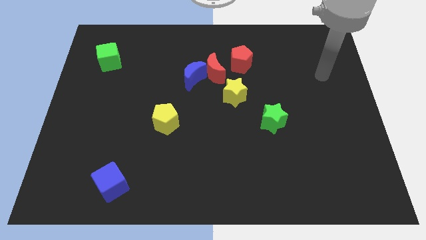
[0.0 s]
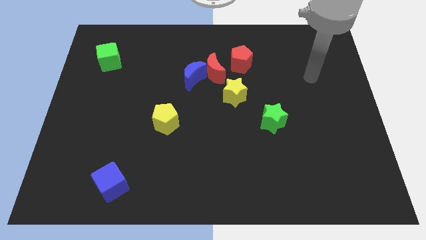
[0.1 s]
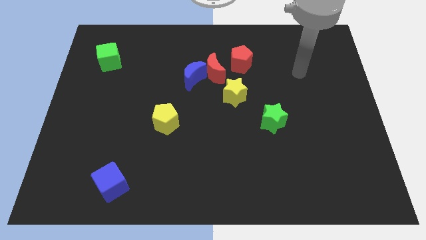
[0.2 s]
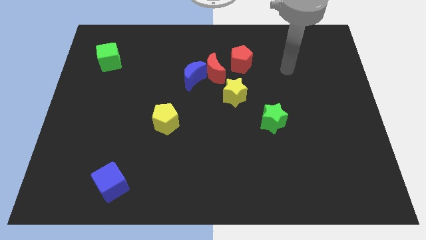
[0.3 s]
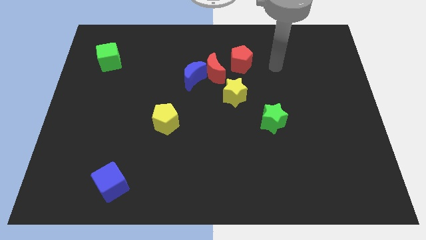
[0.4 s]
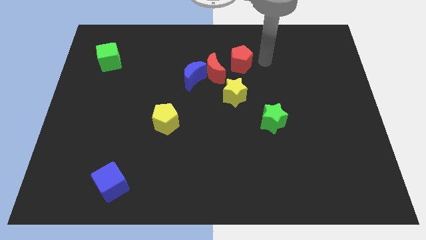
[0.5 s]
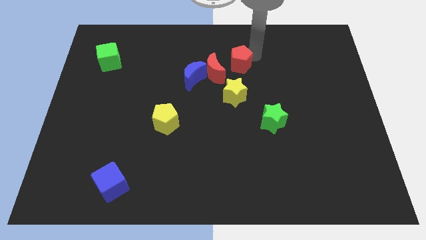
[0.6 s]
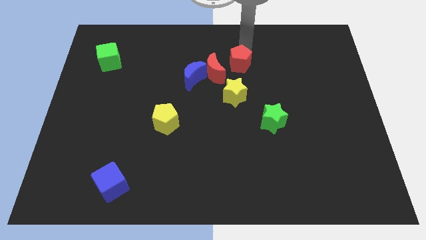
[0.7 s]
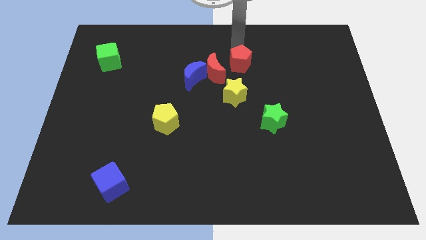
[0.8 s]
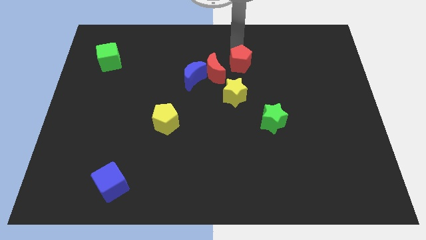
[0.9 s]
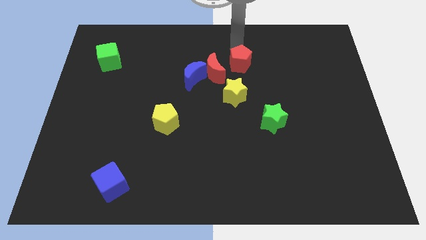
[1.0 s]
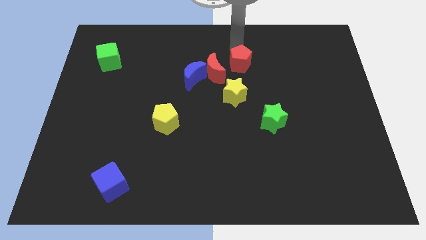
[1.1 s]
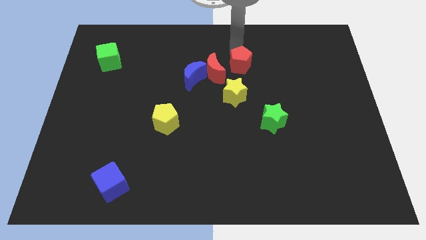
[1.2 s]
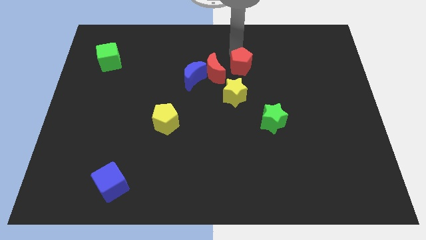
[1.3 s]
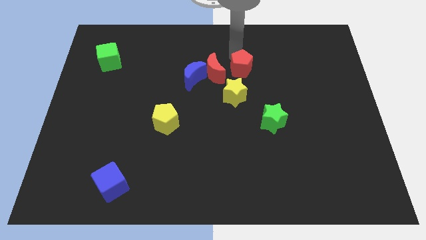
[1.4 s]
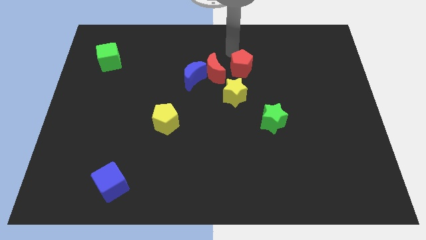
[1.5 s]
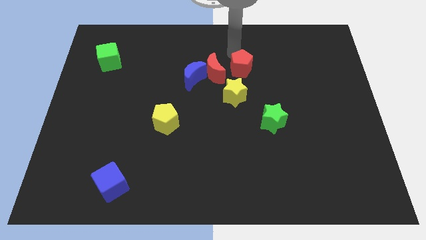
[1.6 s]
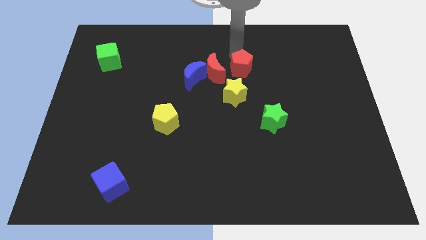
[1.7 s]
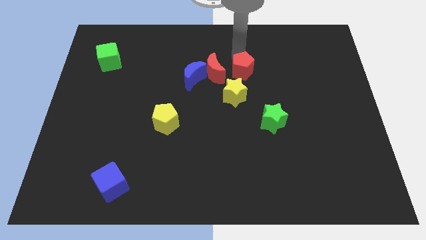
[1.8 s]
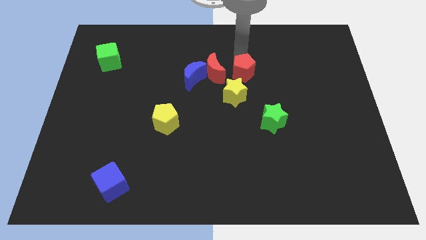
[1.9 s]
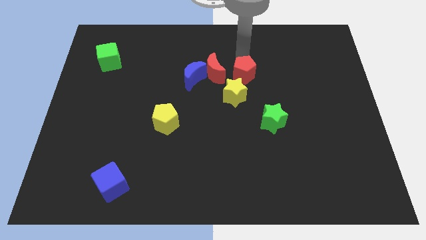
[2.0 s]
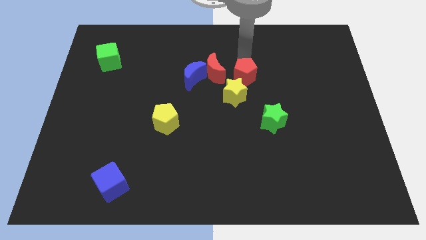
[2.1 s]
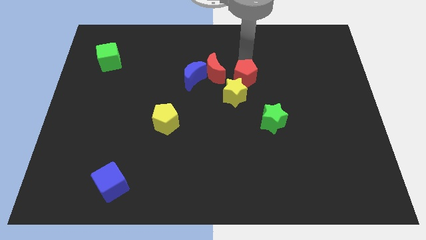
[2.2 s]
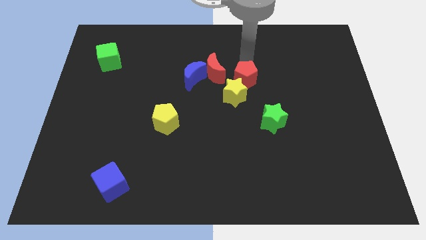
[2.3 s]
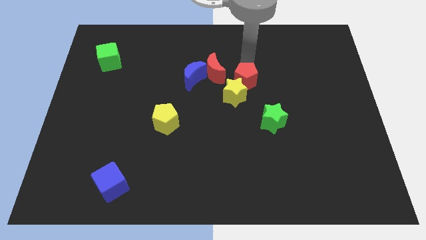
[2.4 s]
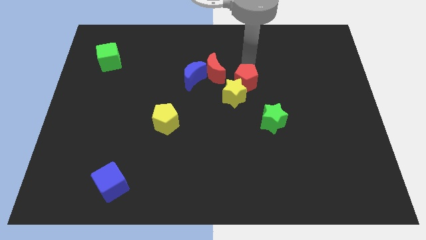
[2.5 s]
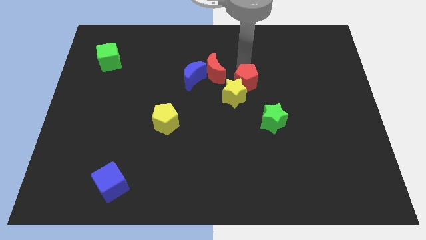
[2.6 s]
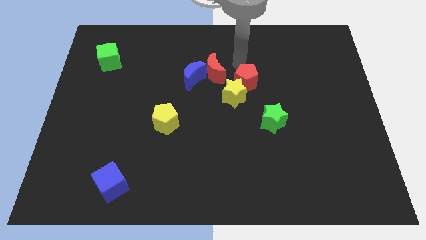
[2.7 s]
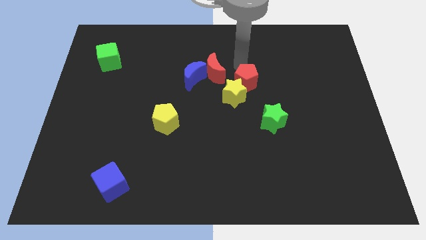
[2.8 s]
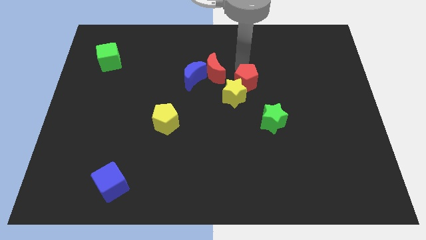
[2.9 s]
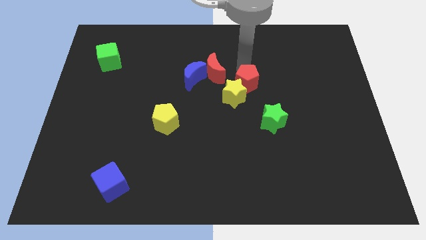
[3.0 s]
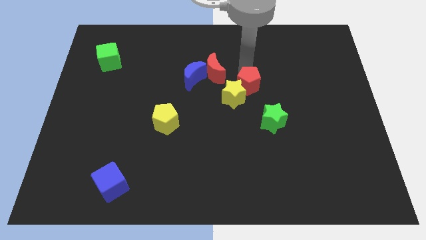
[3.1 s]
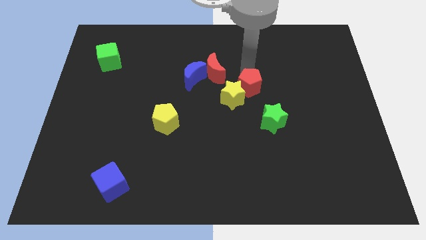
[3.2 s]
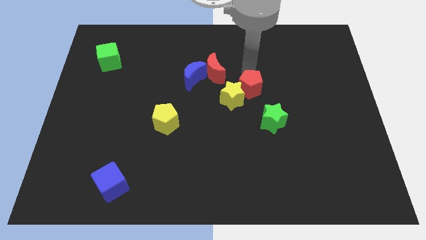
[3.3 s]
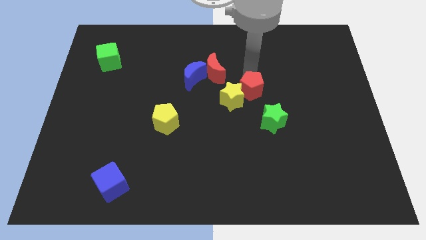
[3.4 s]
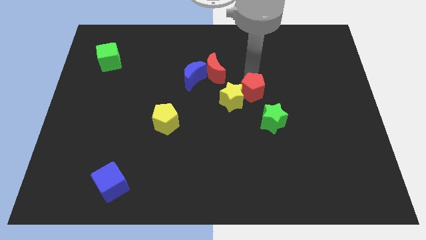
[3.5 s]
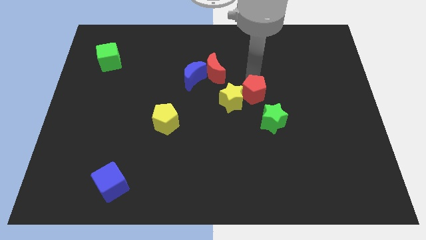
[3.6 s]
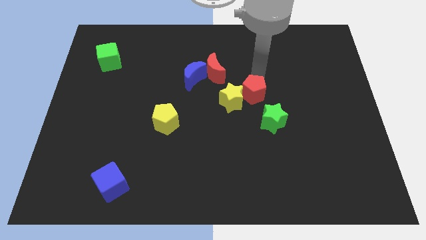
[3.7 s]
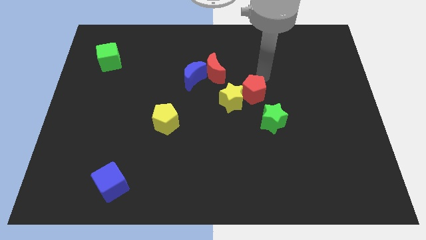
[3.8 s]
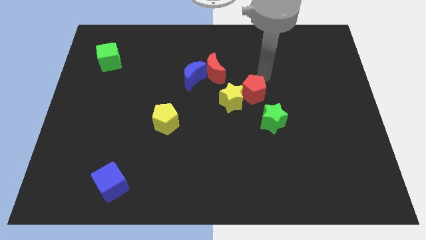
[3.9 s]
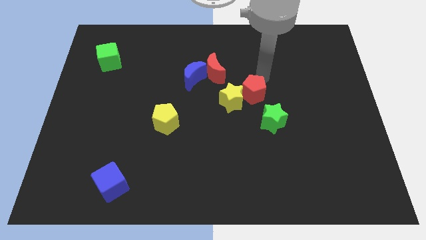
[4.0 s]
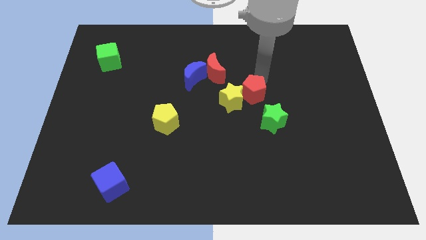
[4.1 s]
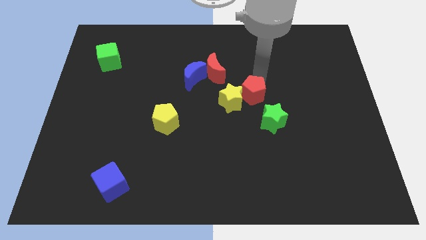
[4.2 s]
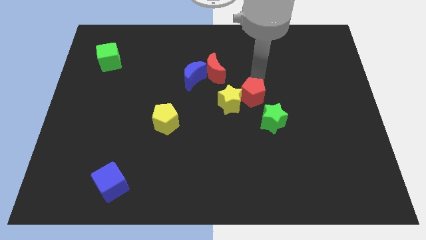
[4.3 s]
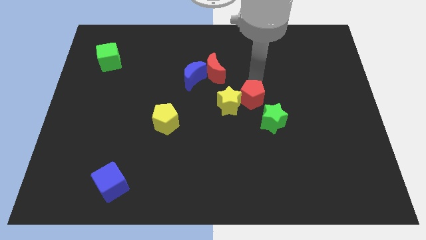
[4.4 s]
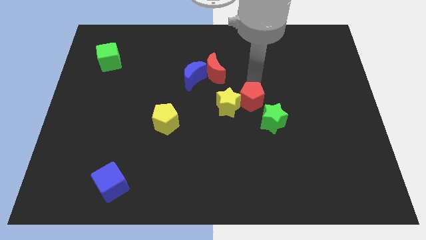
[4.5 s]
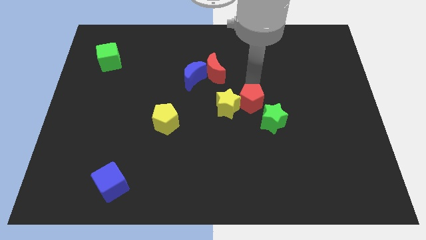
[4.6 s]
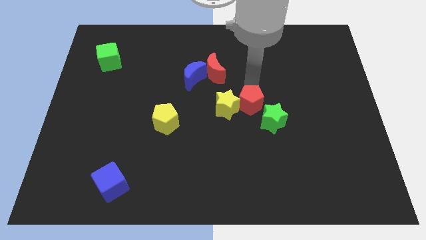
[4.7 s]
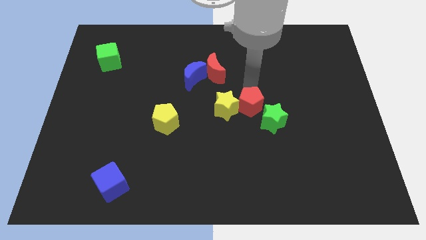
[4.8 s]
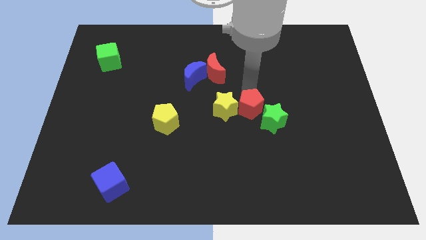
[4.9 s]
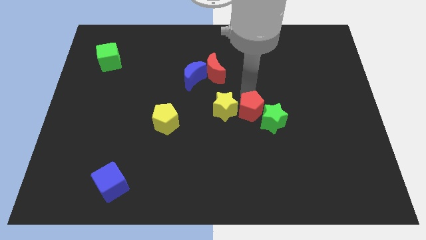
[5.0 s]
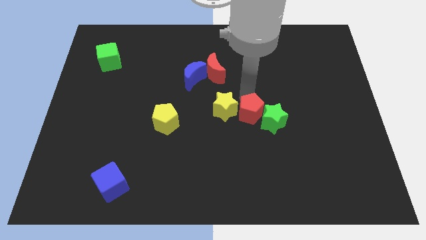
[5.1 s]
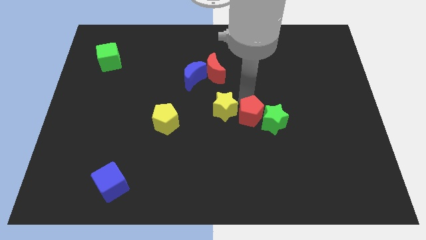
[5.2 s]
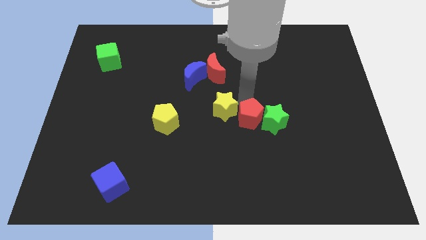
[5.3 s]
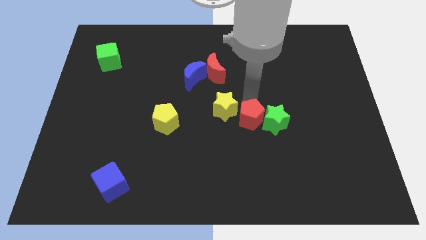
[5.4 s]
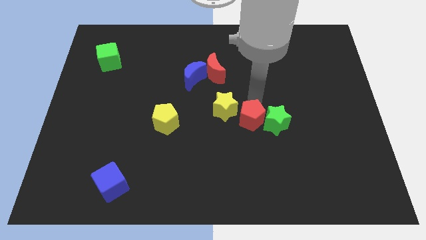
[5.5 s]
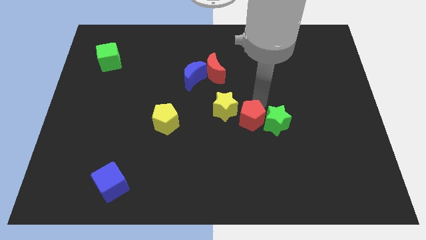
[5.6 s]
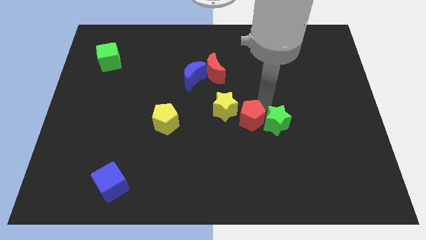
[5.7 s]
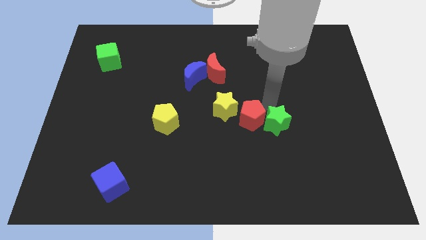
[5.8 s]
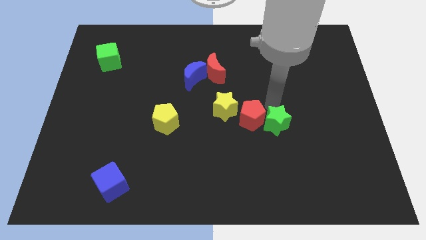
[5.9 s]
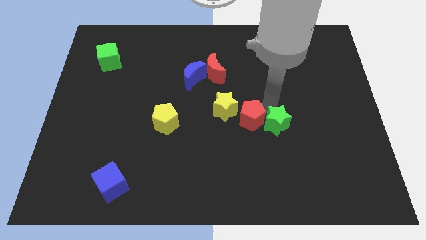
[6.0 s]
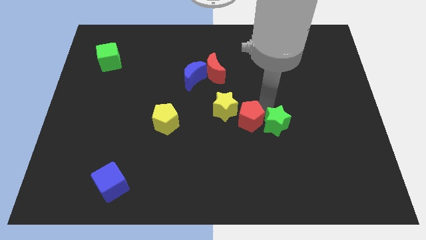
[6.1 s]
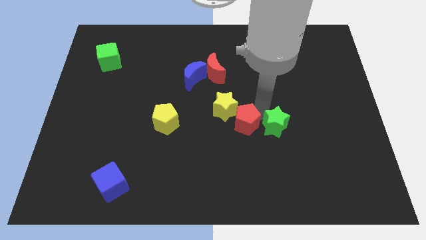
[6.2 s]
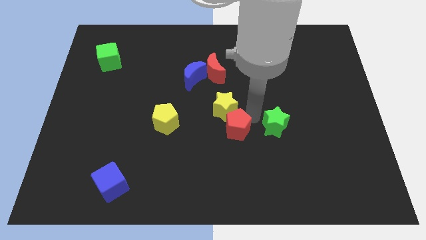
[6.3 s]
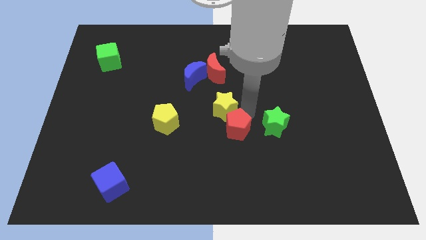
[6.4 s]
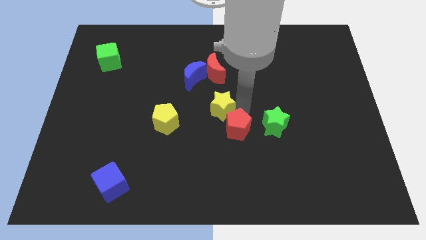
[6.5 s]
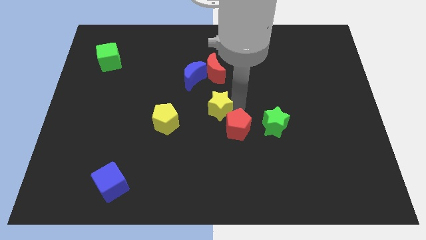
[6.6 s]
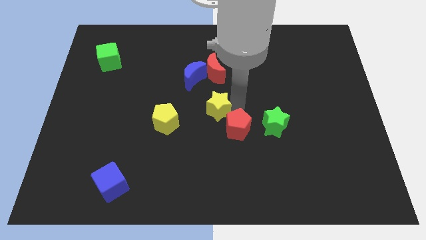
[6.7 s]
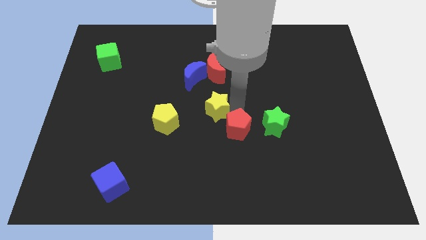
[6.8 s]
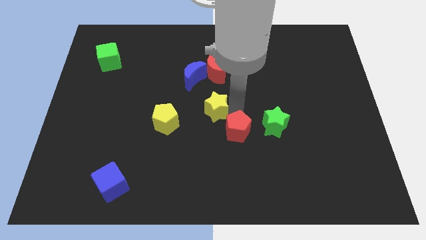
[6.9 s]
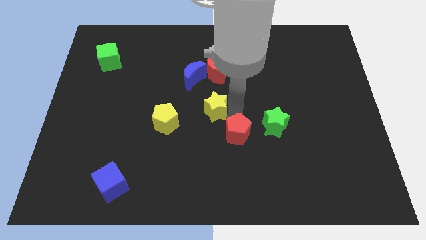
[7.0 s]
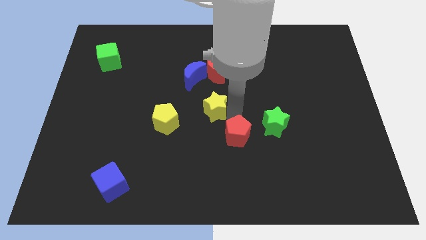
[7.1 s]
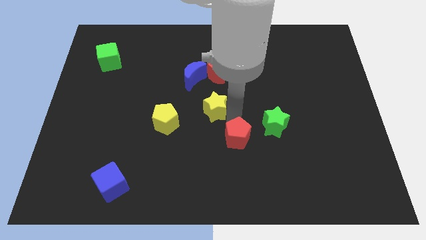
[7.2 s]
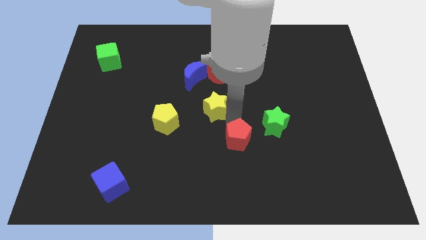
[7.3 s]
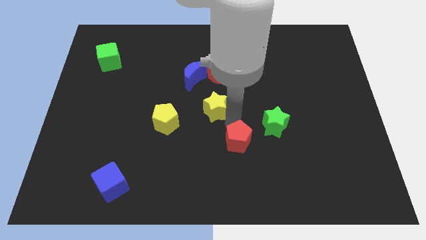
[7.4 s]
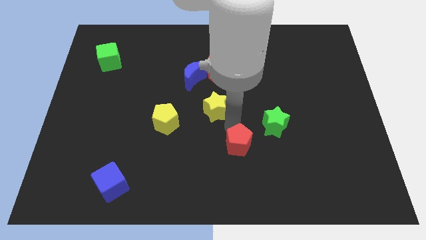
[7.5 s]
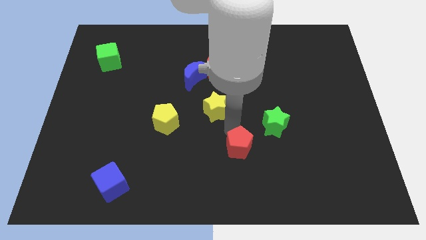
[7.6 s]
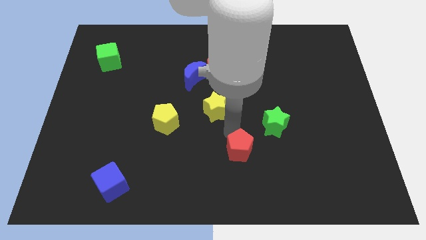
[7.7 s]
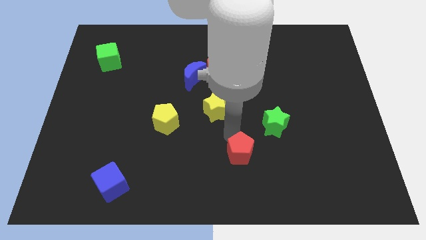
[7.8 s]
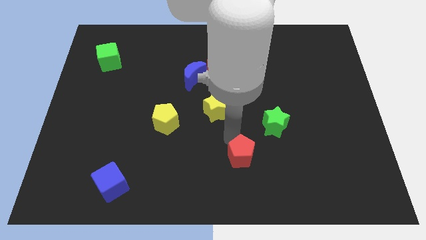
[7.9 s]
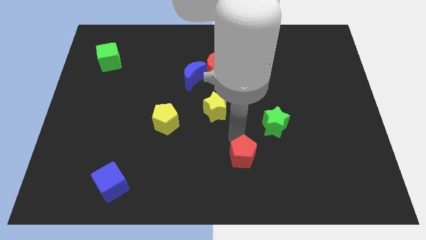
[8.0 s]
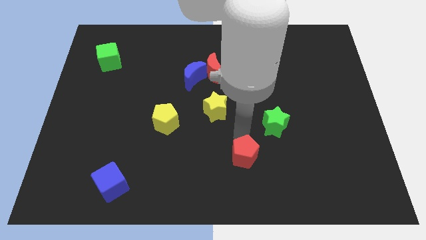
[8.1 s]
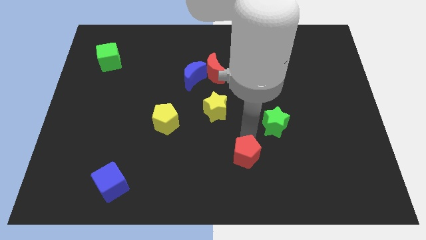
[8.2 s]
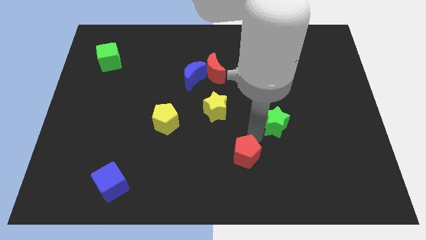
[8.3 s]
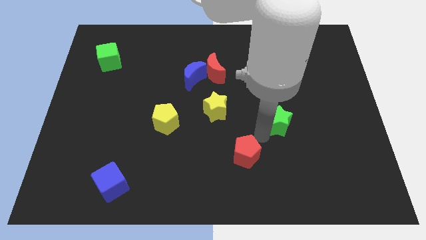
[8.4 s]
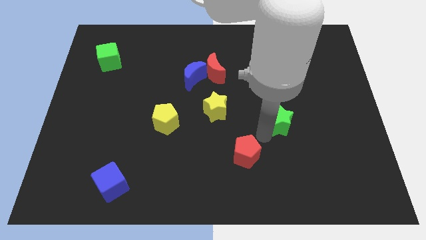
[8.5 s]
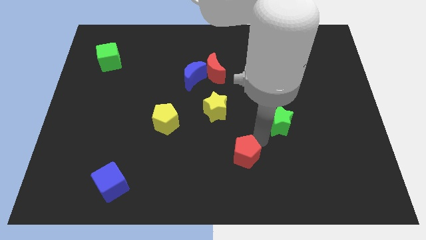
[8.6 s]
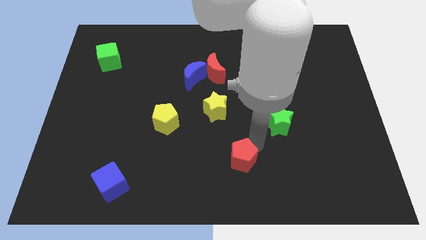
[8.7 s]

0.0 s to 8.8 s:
move the red pentagon to the bottom

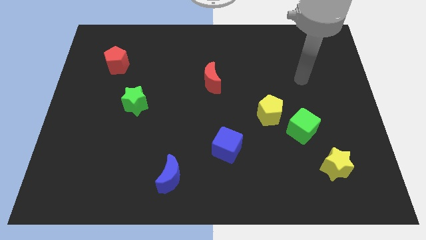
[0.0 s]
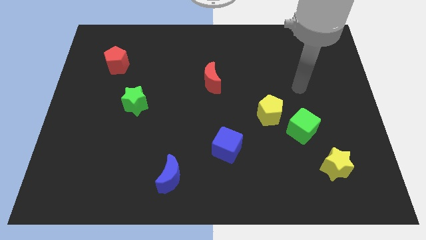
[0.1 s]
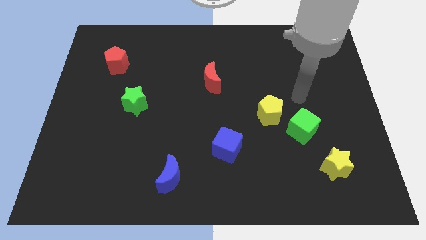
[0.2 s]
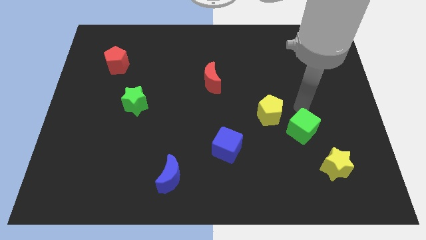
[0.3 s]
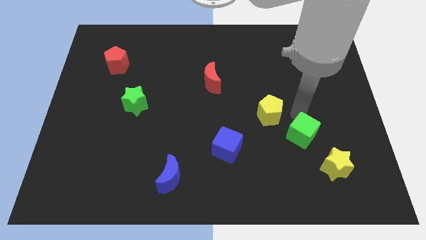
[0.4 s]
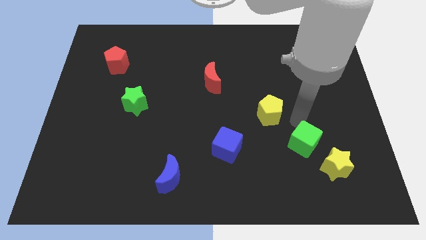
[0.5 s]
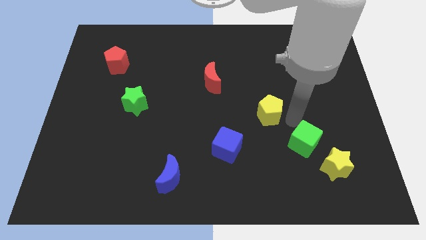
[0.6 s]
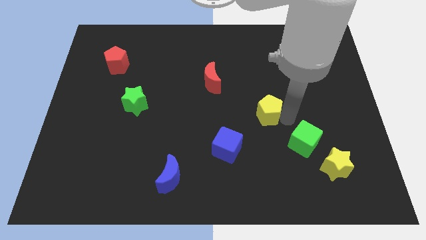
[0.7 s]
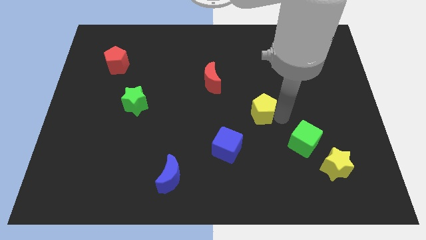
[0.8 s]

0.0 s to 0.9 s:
put the yellow pentagon to the middle of the board
